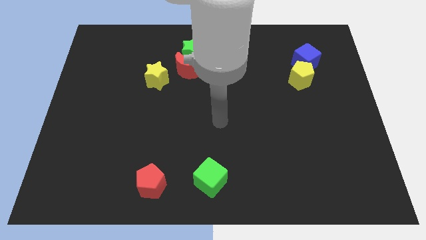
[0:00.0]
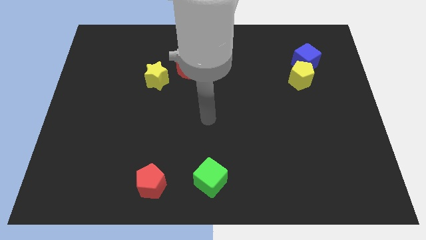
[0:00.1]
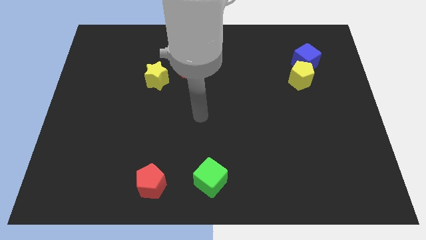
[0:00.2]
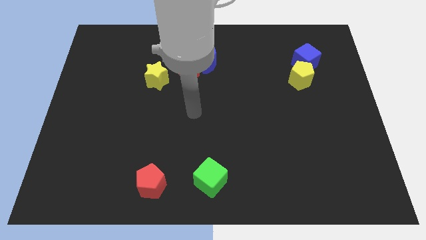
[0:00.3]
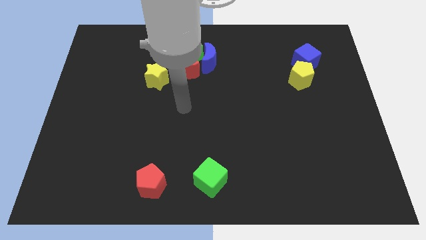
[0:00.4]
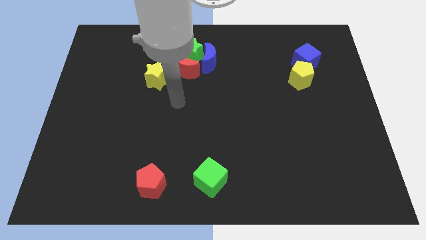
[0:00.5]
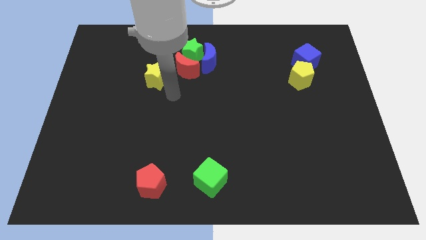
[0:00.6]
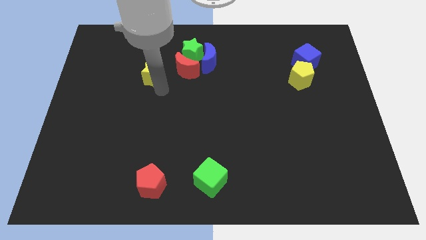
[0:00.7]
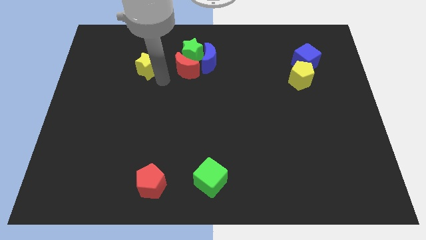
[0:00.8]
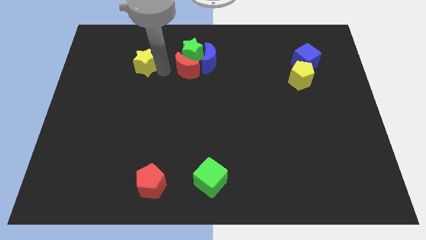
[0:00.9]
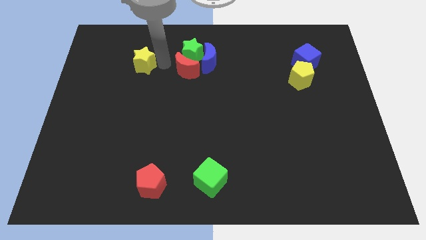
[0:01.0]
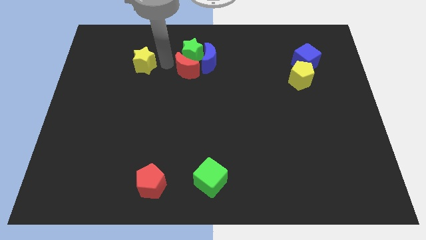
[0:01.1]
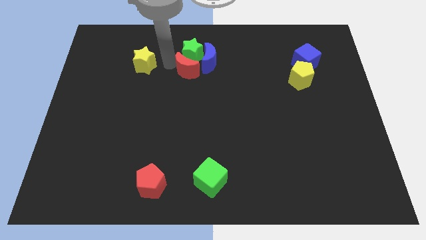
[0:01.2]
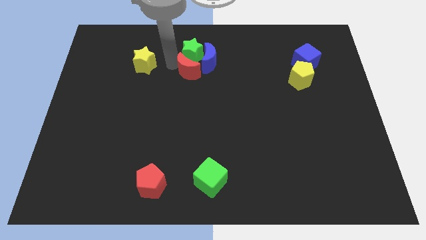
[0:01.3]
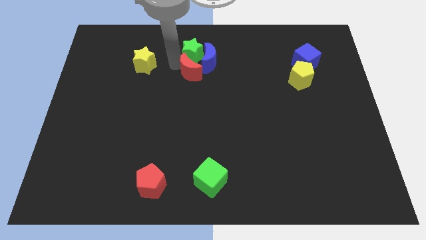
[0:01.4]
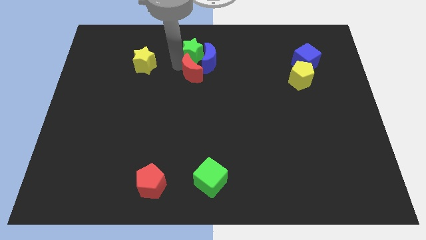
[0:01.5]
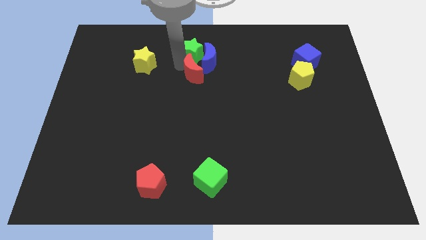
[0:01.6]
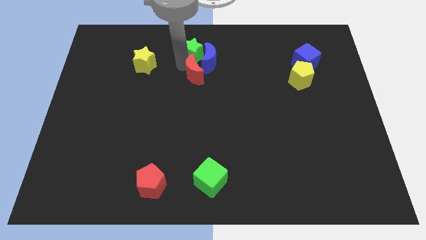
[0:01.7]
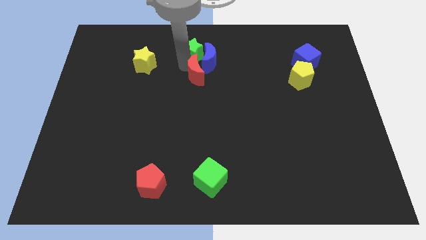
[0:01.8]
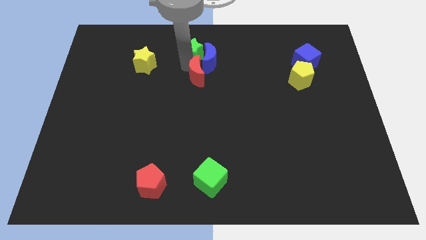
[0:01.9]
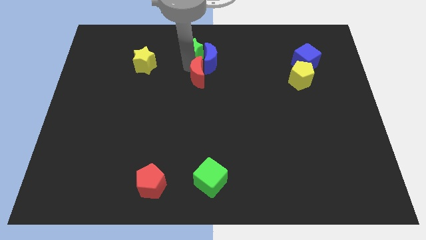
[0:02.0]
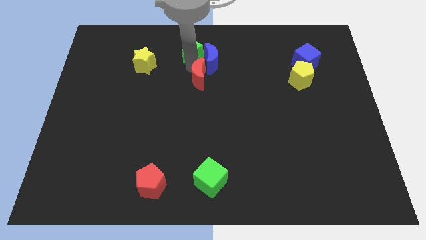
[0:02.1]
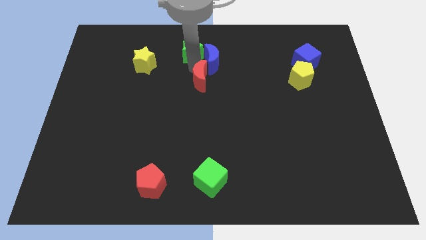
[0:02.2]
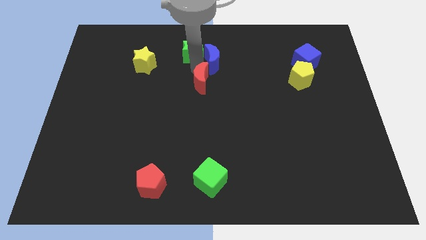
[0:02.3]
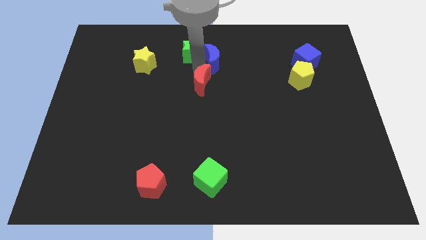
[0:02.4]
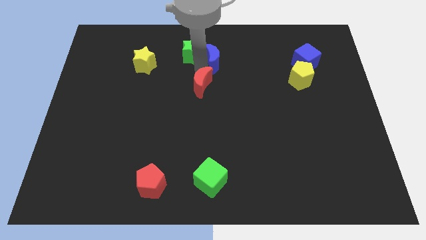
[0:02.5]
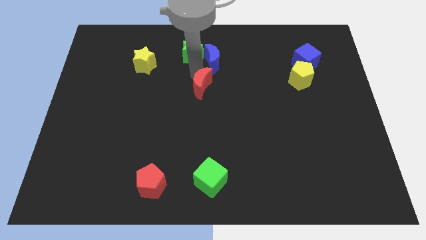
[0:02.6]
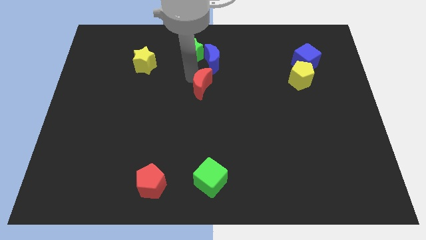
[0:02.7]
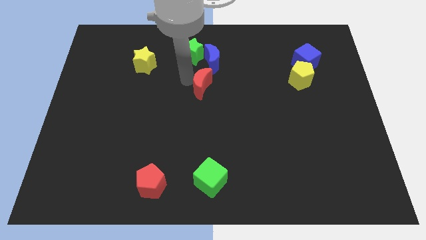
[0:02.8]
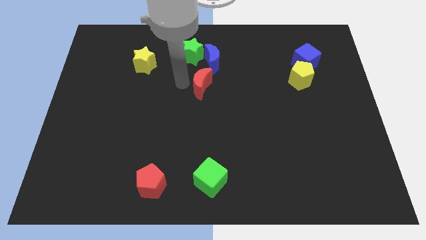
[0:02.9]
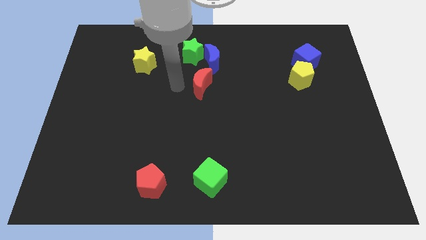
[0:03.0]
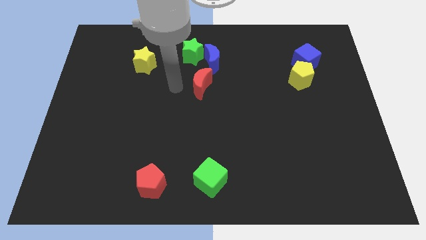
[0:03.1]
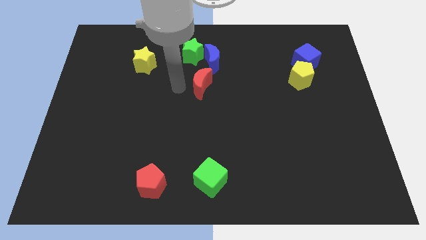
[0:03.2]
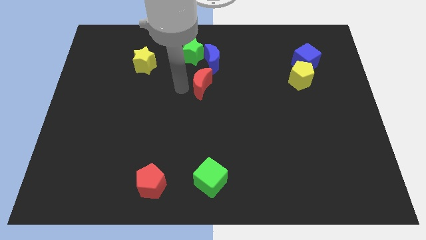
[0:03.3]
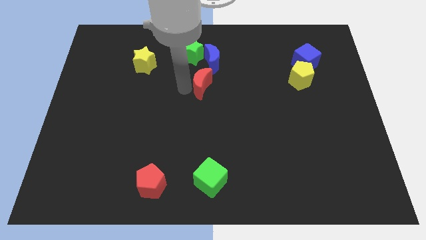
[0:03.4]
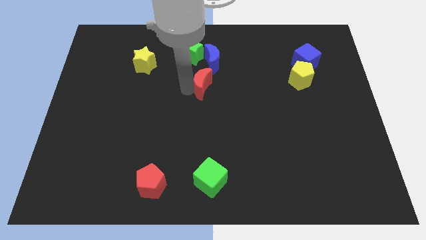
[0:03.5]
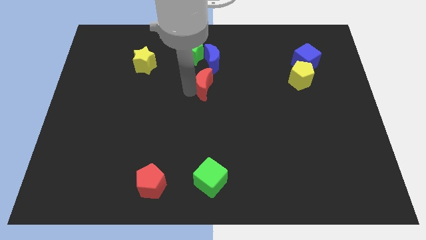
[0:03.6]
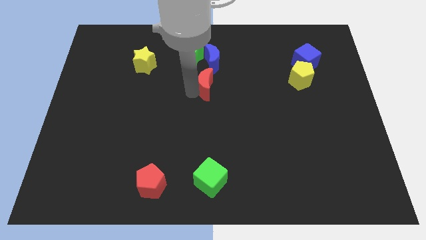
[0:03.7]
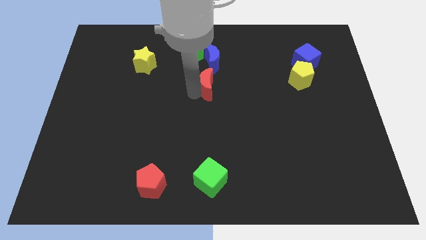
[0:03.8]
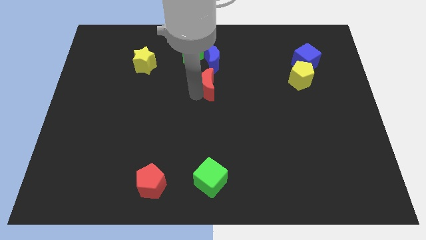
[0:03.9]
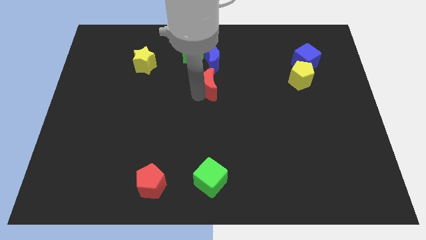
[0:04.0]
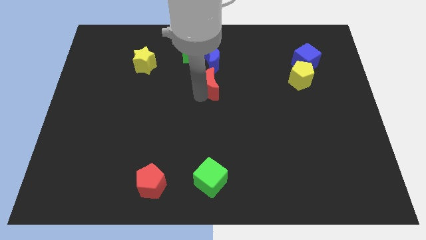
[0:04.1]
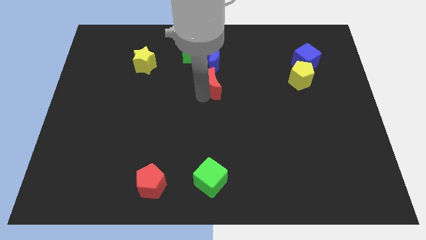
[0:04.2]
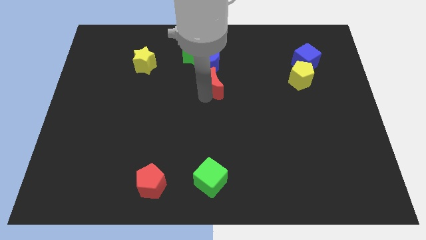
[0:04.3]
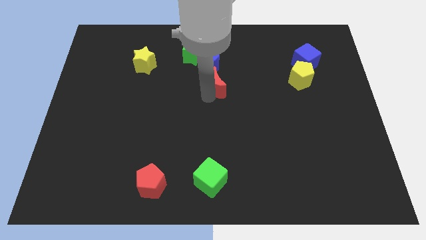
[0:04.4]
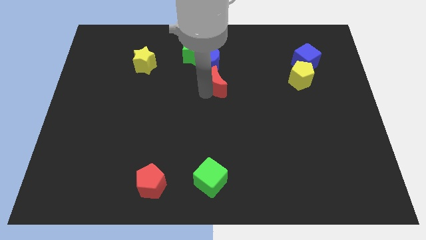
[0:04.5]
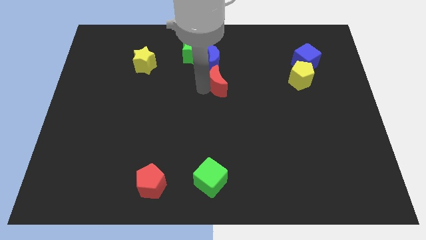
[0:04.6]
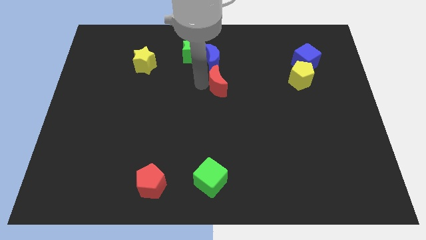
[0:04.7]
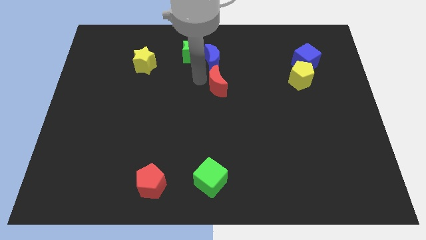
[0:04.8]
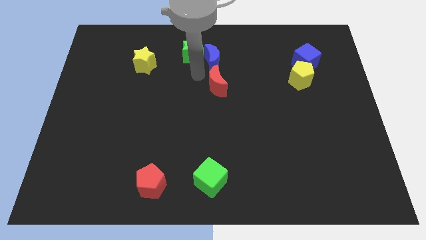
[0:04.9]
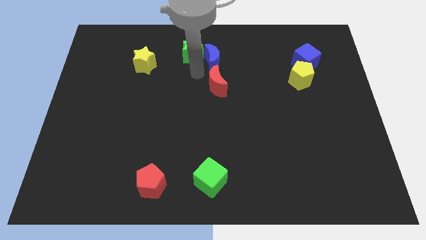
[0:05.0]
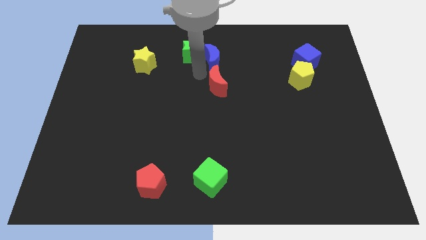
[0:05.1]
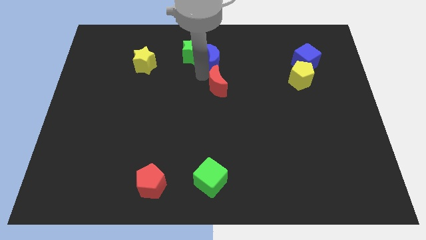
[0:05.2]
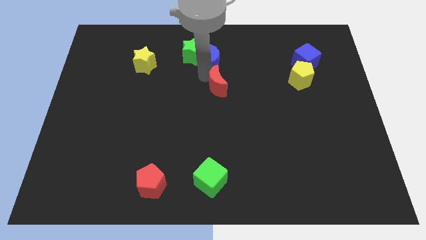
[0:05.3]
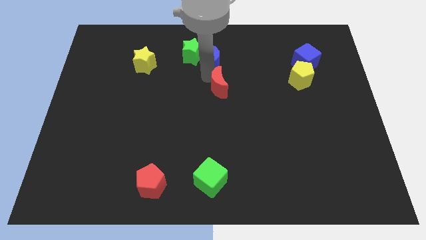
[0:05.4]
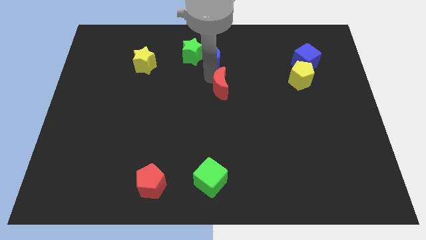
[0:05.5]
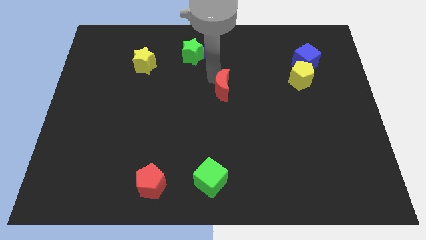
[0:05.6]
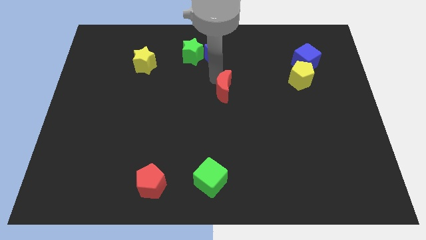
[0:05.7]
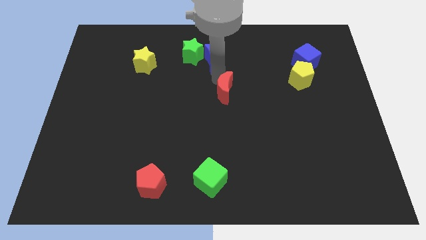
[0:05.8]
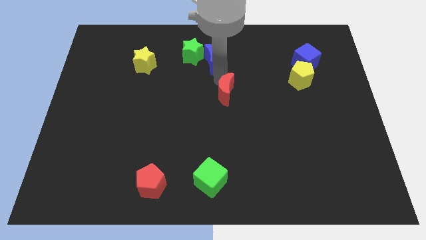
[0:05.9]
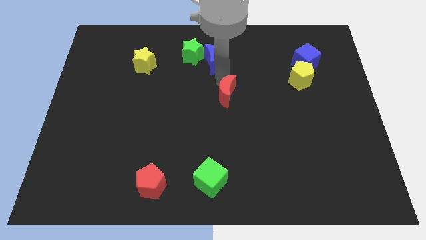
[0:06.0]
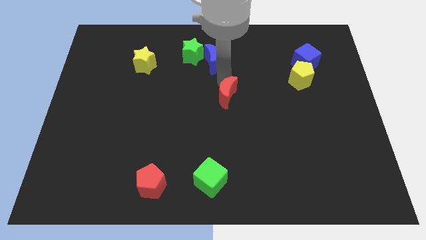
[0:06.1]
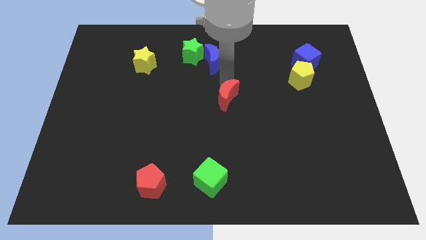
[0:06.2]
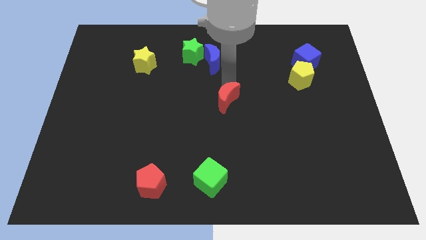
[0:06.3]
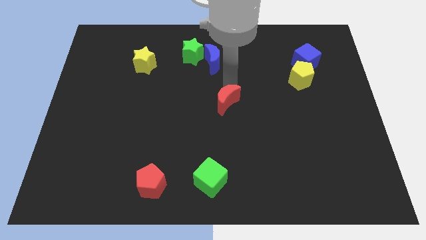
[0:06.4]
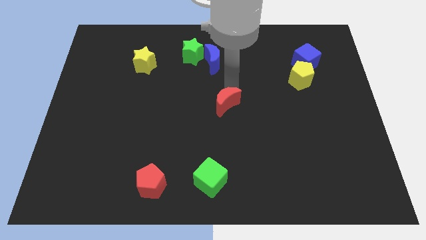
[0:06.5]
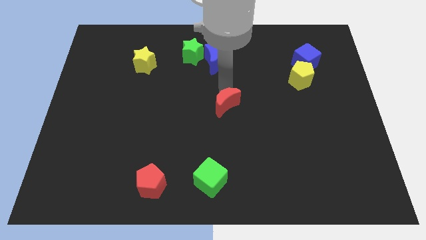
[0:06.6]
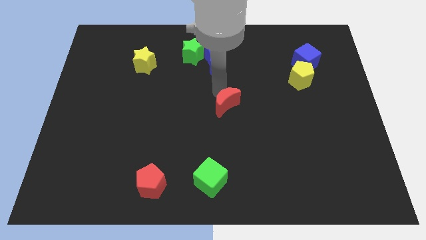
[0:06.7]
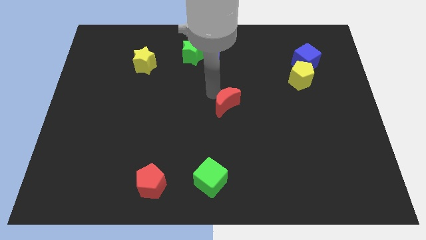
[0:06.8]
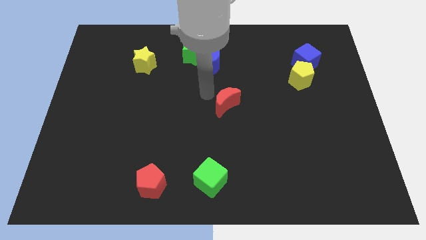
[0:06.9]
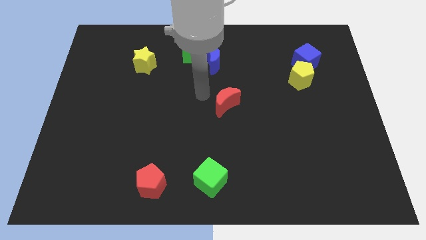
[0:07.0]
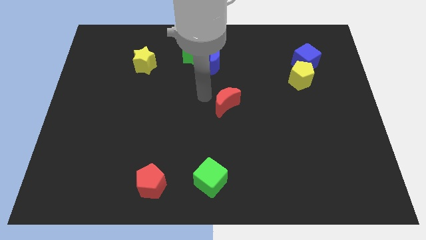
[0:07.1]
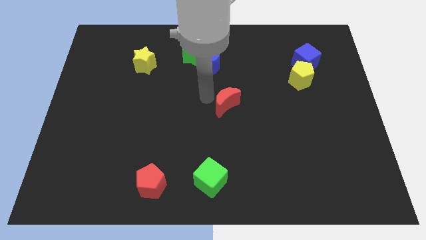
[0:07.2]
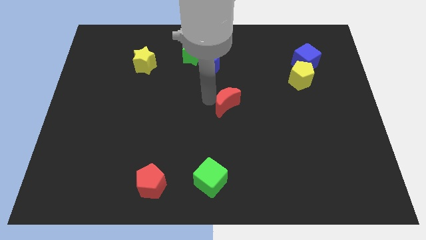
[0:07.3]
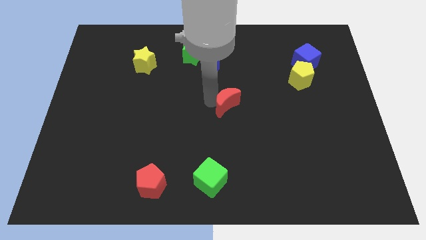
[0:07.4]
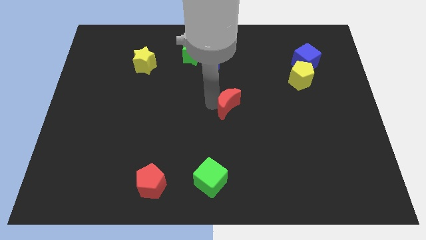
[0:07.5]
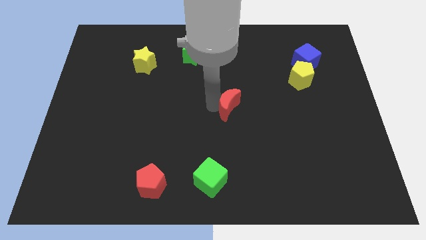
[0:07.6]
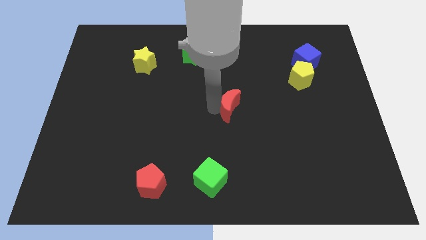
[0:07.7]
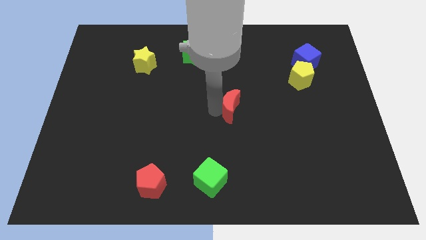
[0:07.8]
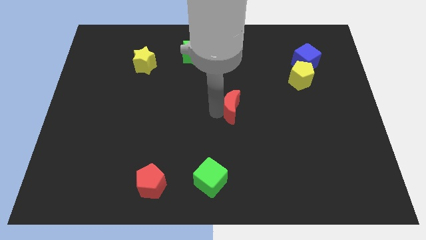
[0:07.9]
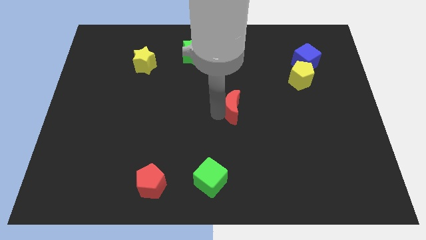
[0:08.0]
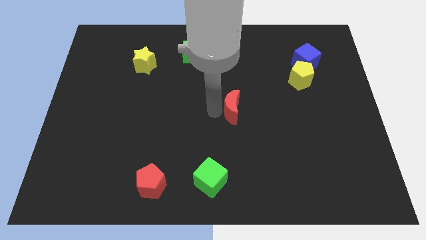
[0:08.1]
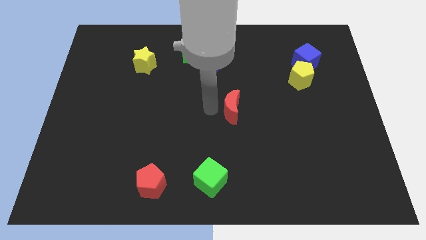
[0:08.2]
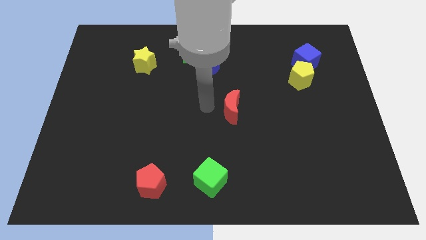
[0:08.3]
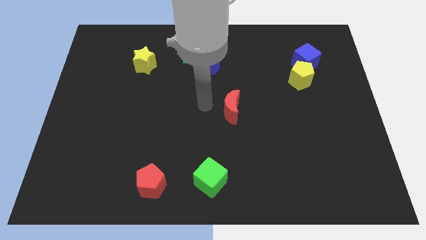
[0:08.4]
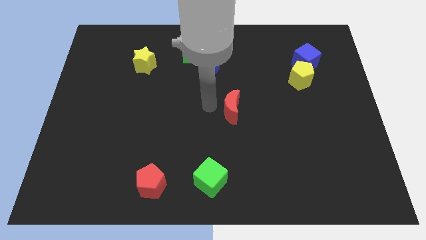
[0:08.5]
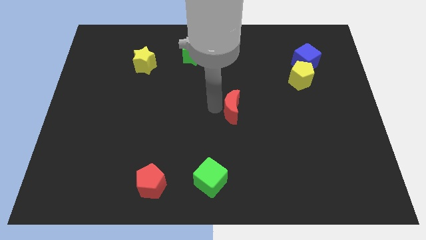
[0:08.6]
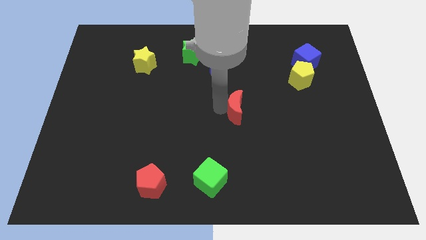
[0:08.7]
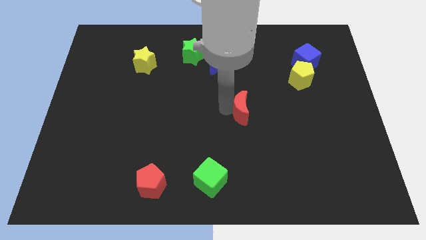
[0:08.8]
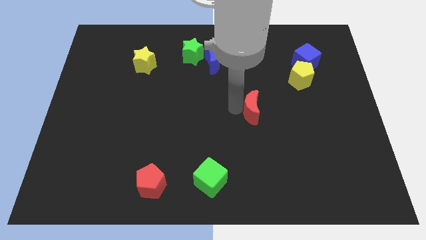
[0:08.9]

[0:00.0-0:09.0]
slide the red moon downwards and right
